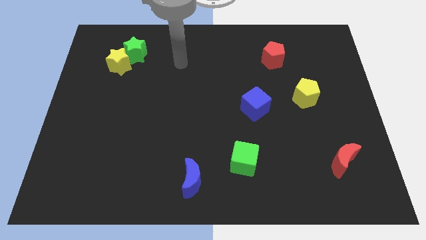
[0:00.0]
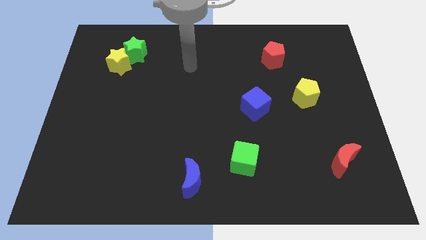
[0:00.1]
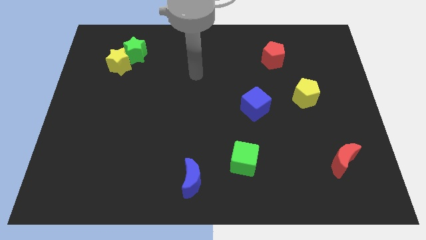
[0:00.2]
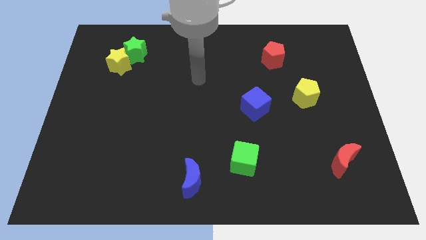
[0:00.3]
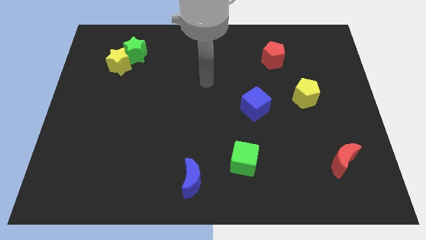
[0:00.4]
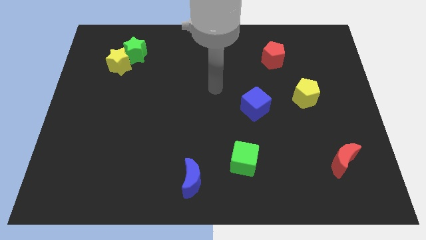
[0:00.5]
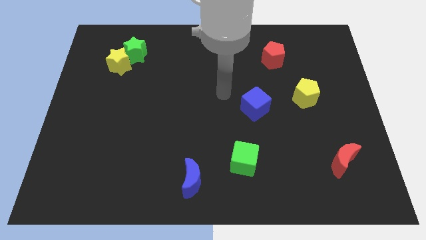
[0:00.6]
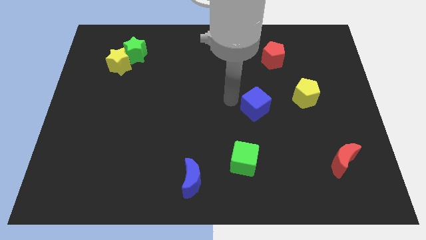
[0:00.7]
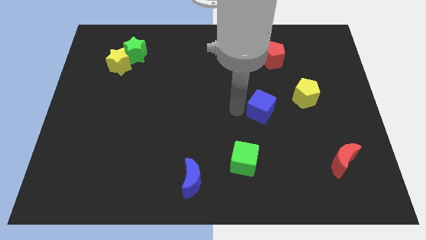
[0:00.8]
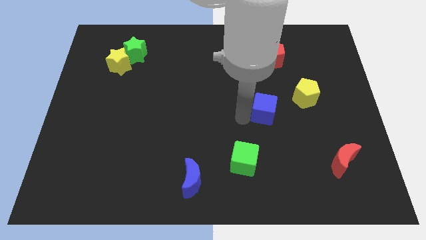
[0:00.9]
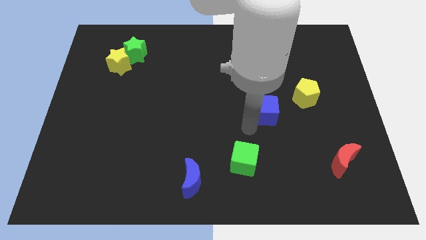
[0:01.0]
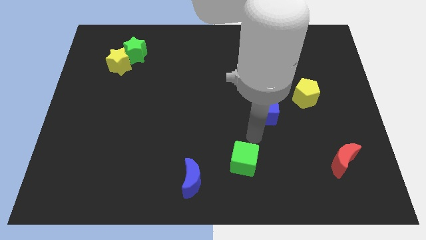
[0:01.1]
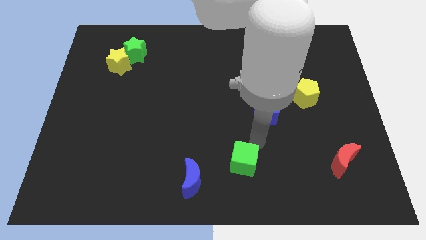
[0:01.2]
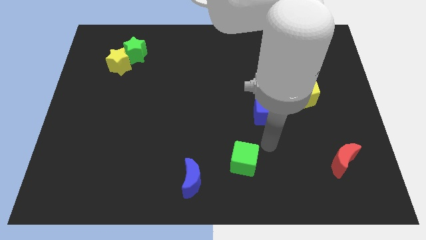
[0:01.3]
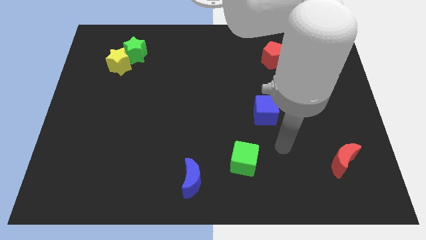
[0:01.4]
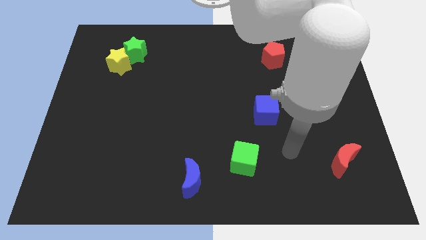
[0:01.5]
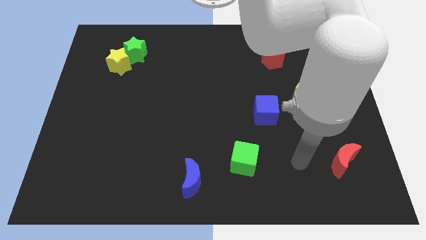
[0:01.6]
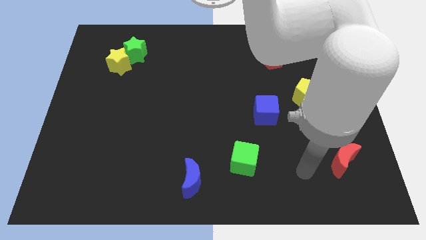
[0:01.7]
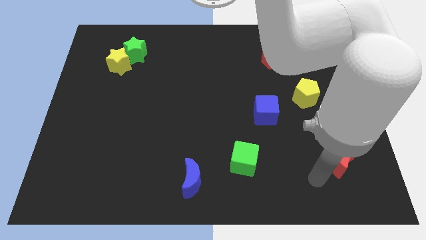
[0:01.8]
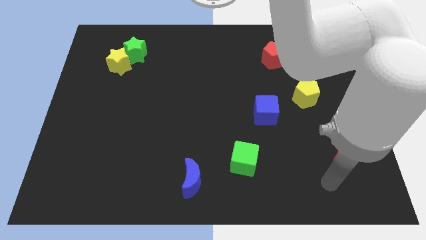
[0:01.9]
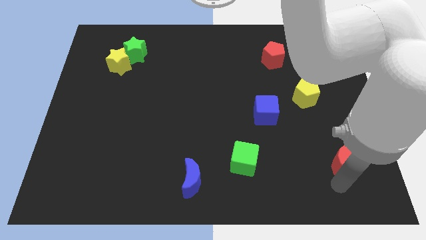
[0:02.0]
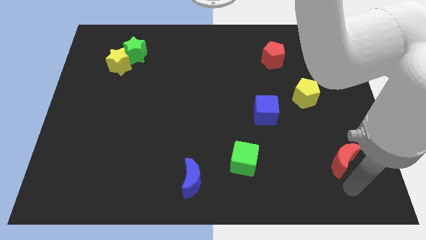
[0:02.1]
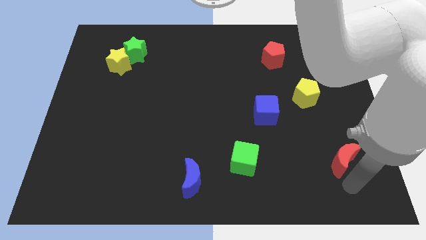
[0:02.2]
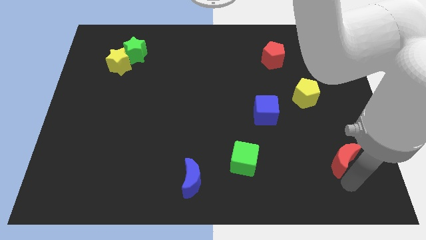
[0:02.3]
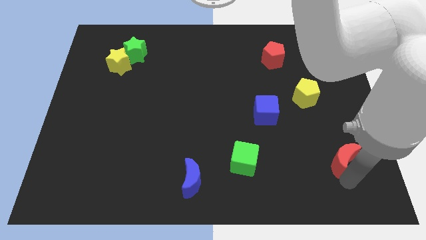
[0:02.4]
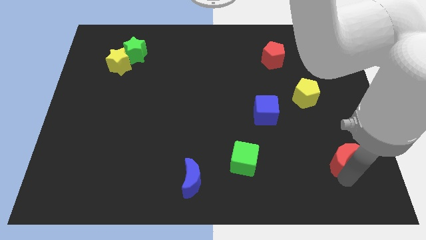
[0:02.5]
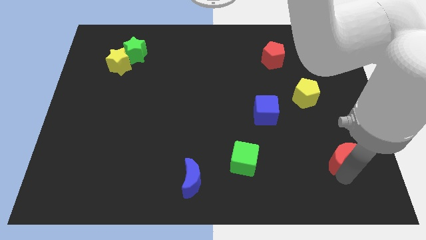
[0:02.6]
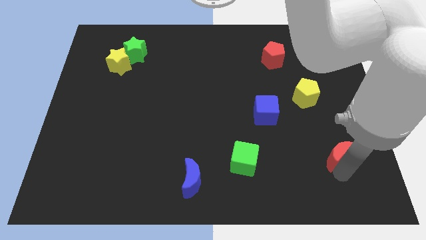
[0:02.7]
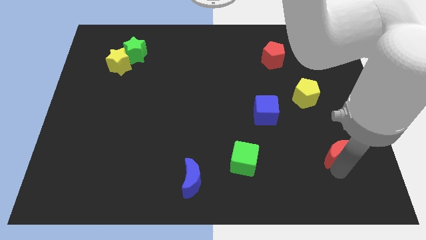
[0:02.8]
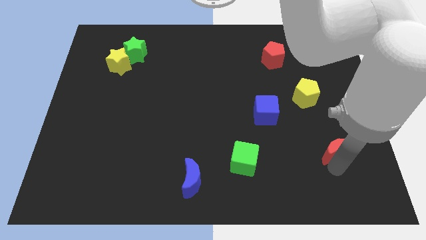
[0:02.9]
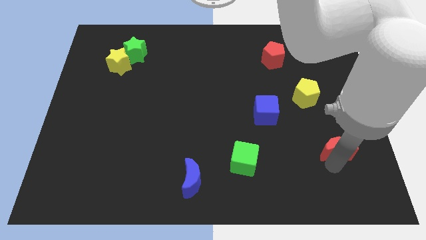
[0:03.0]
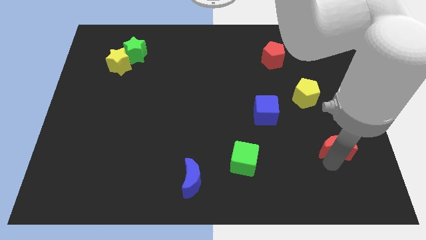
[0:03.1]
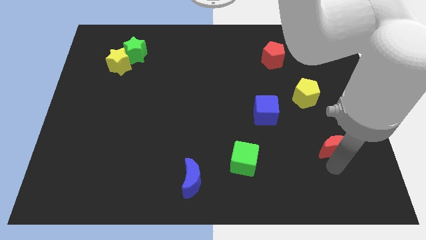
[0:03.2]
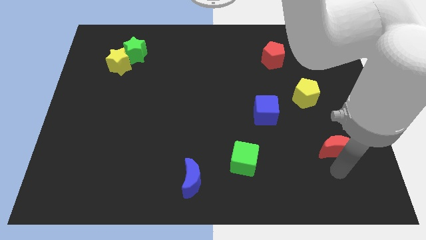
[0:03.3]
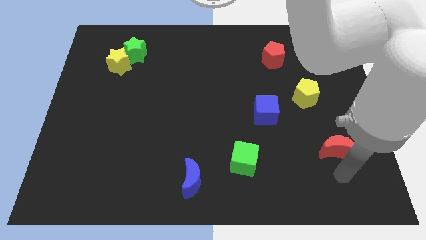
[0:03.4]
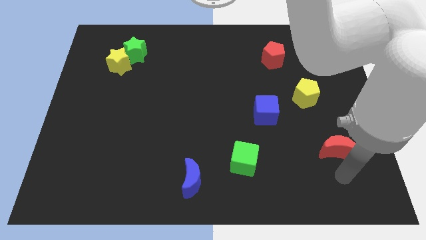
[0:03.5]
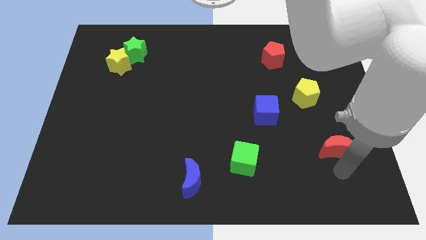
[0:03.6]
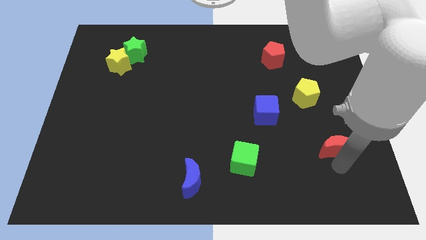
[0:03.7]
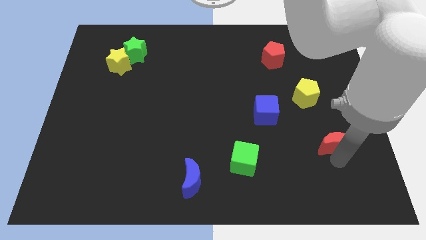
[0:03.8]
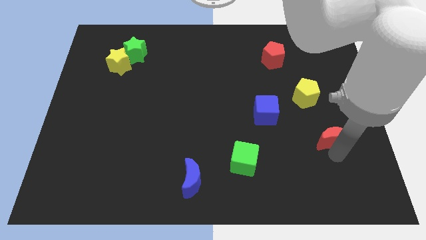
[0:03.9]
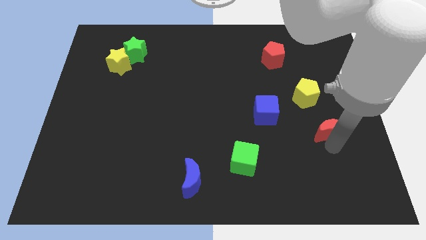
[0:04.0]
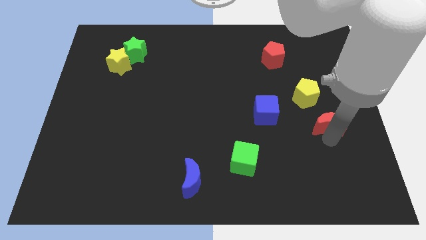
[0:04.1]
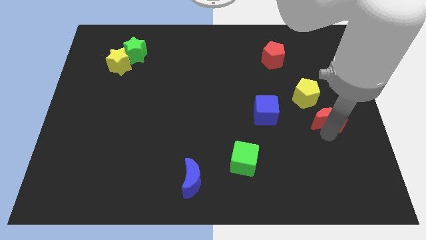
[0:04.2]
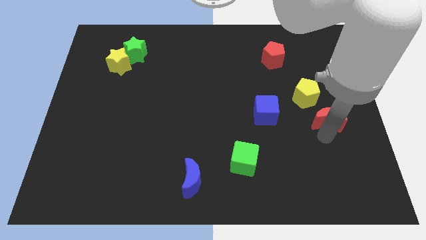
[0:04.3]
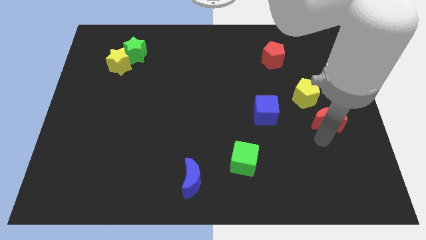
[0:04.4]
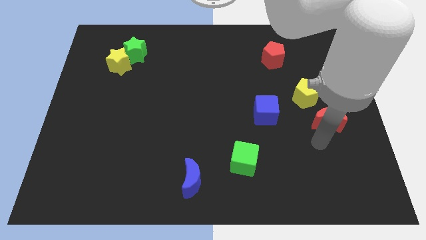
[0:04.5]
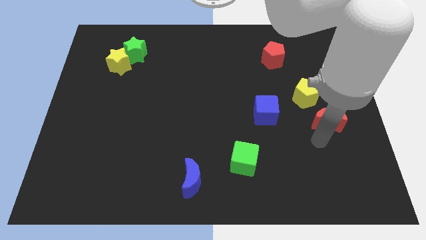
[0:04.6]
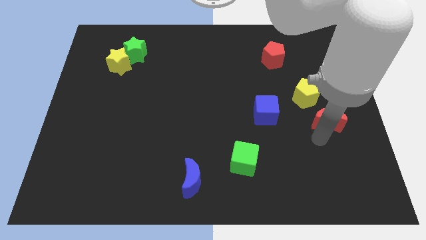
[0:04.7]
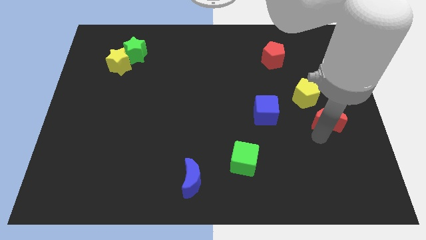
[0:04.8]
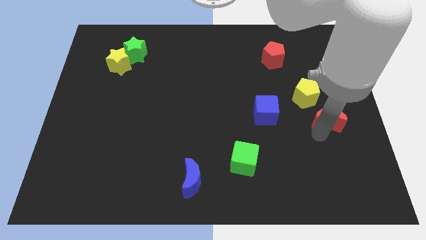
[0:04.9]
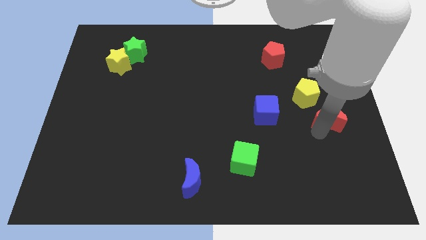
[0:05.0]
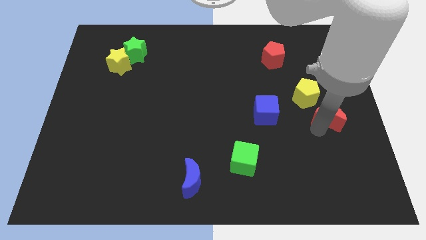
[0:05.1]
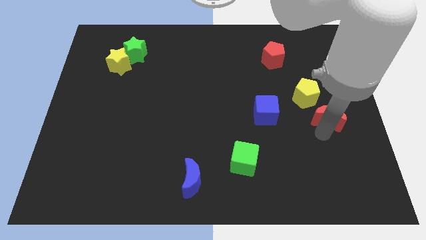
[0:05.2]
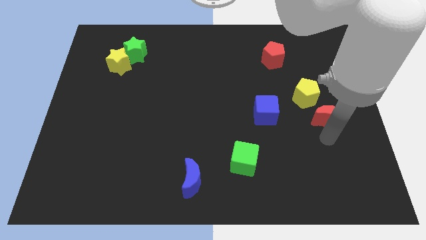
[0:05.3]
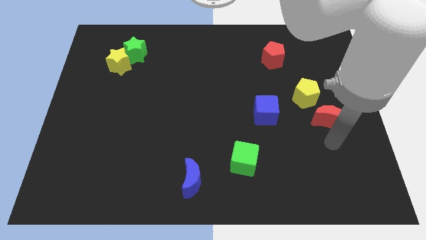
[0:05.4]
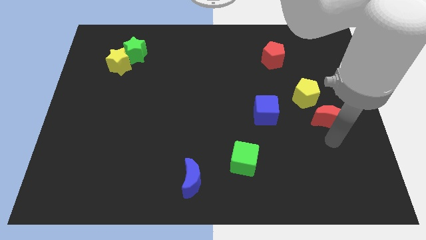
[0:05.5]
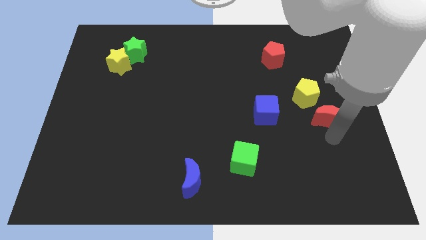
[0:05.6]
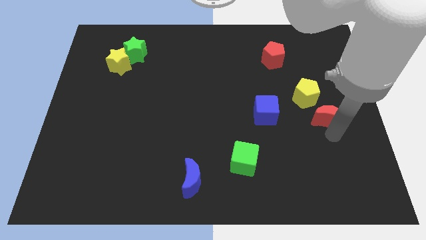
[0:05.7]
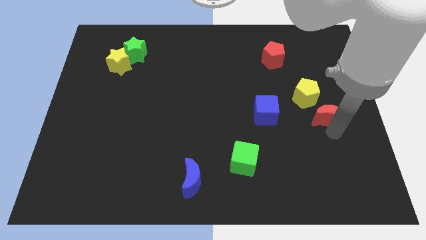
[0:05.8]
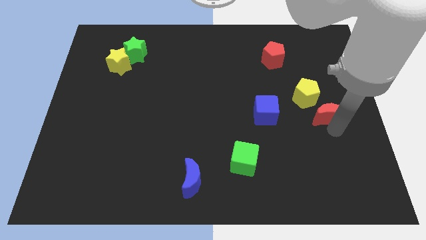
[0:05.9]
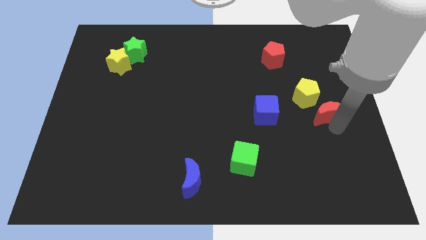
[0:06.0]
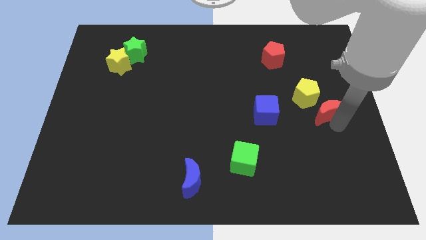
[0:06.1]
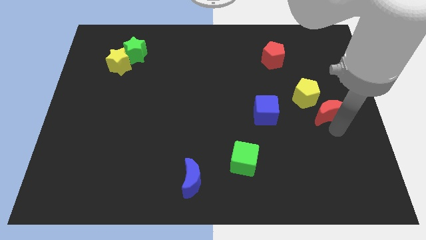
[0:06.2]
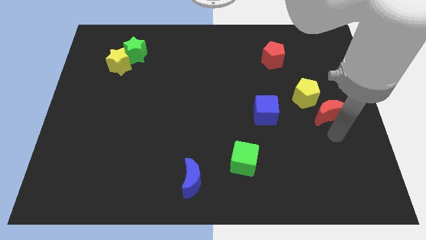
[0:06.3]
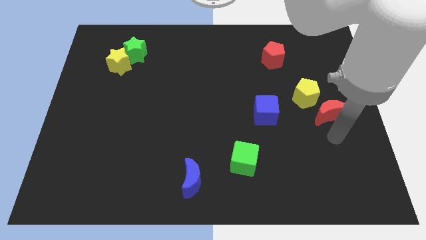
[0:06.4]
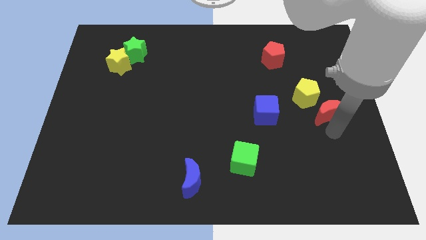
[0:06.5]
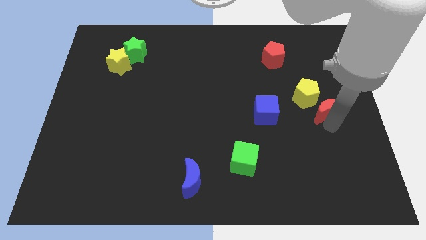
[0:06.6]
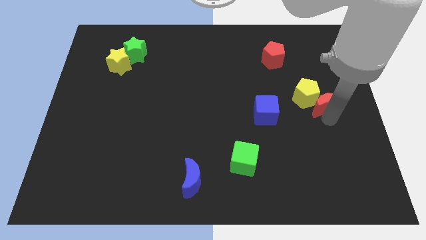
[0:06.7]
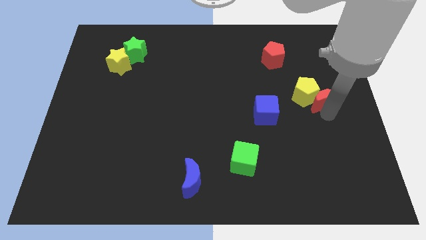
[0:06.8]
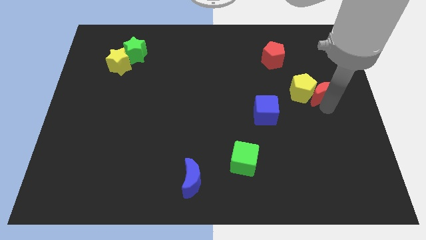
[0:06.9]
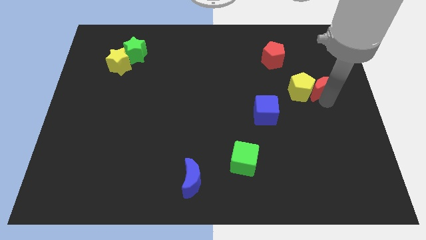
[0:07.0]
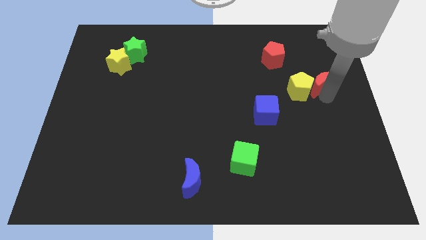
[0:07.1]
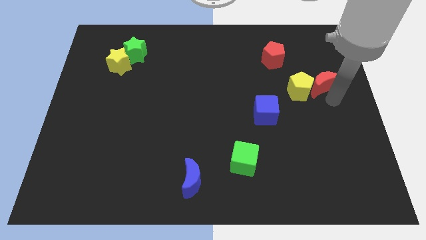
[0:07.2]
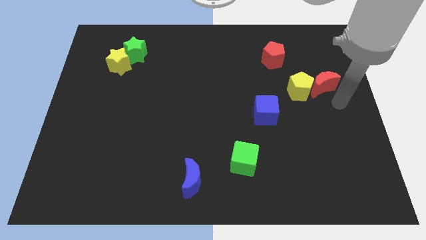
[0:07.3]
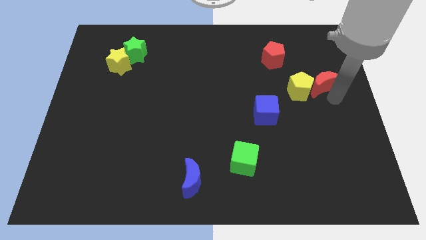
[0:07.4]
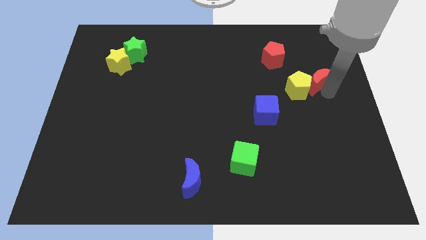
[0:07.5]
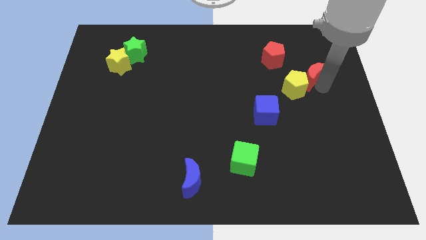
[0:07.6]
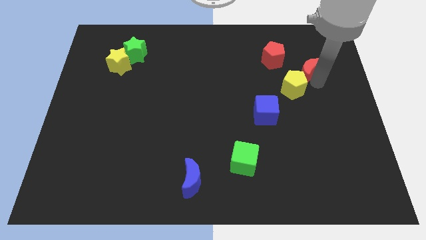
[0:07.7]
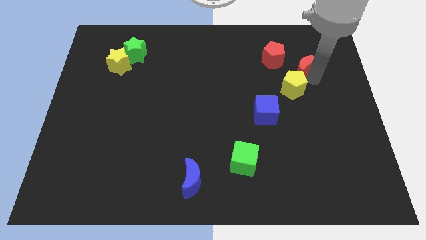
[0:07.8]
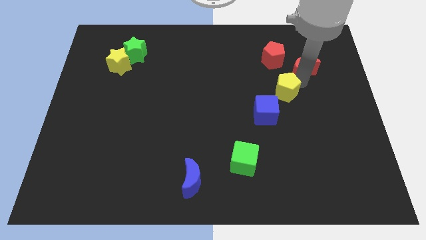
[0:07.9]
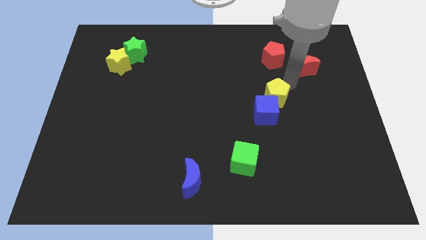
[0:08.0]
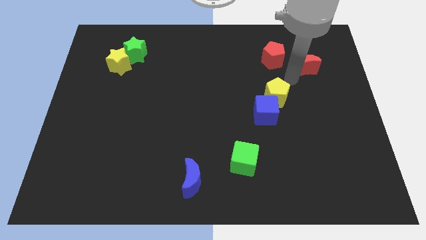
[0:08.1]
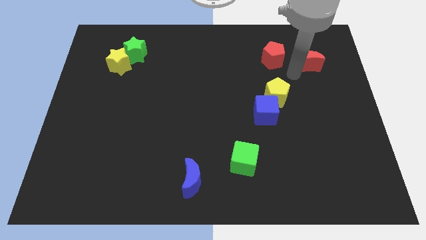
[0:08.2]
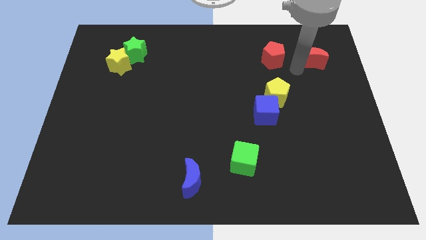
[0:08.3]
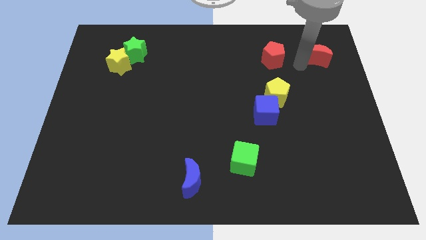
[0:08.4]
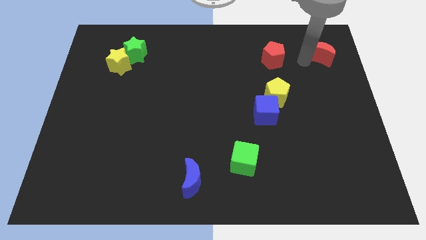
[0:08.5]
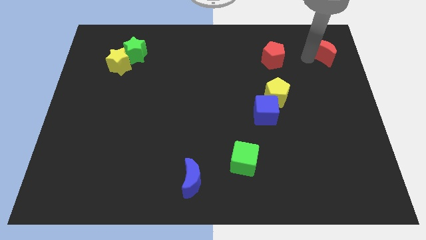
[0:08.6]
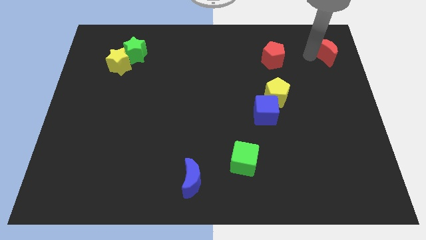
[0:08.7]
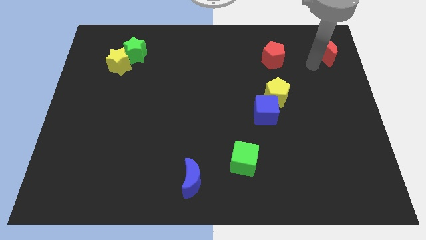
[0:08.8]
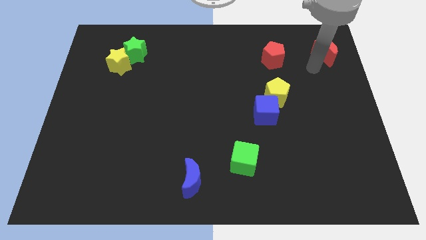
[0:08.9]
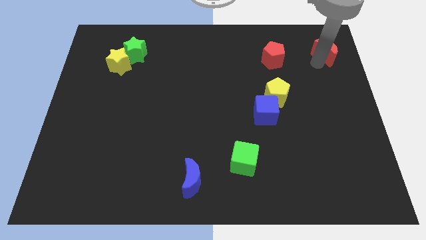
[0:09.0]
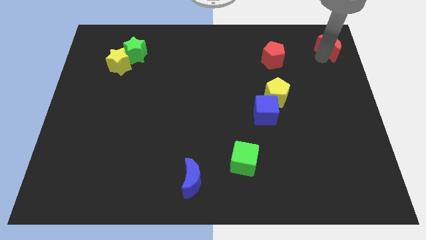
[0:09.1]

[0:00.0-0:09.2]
put the red moon to the upper right corner
